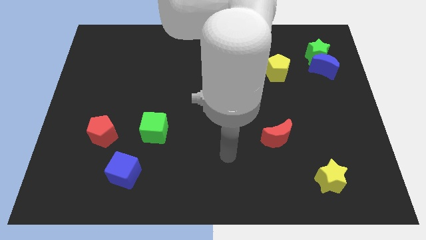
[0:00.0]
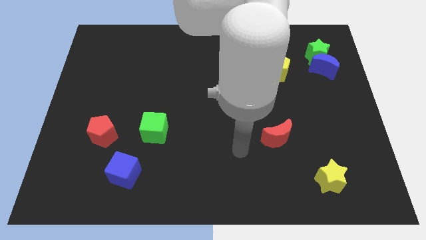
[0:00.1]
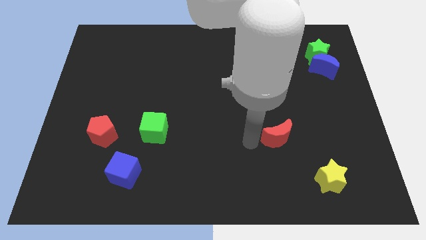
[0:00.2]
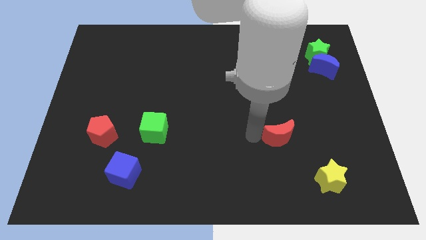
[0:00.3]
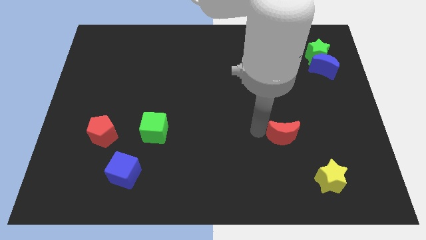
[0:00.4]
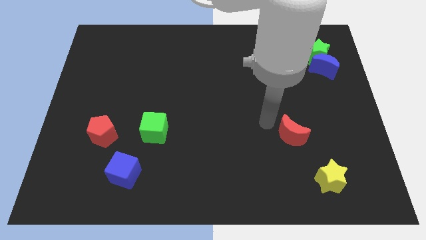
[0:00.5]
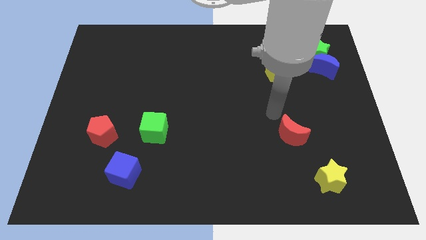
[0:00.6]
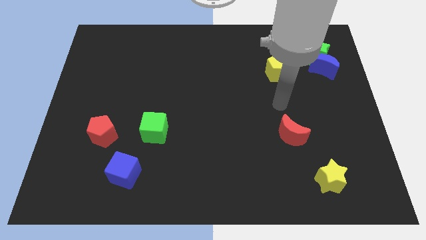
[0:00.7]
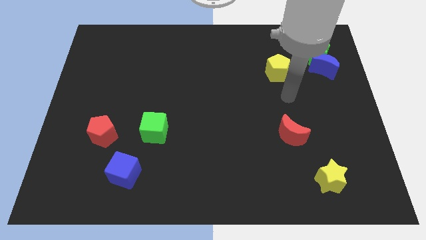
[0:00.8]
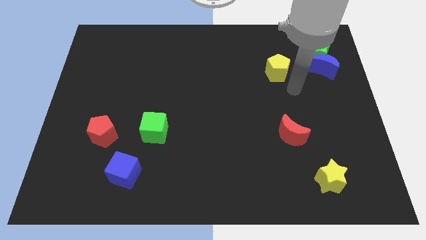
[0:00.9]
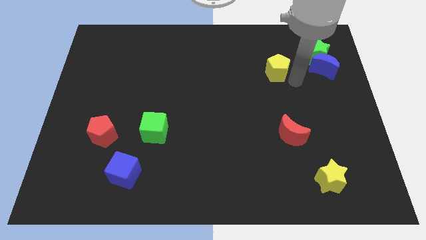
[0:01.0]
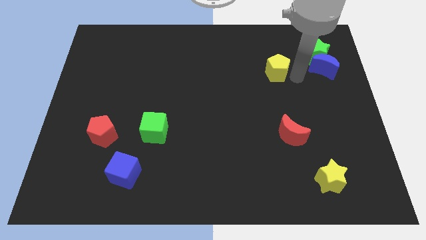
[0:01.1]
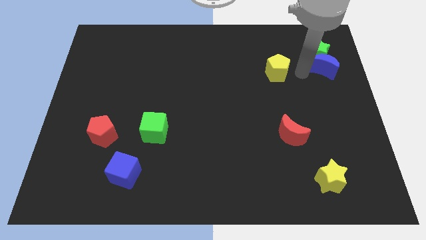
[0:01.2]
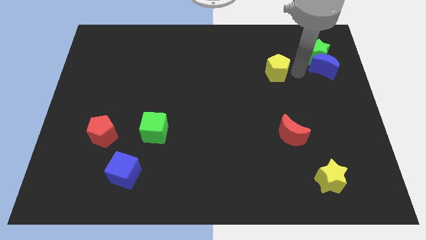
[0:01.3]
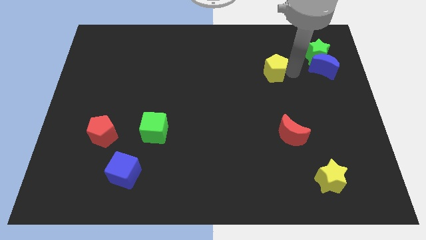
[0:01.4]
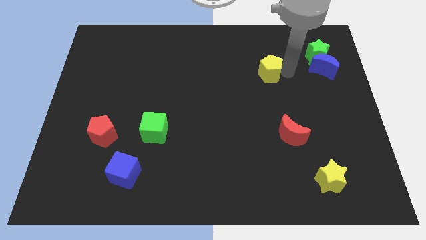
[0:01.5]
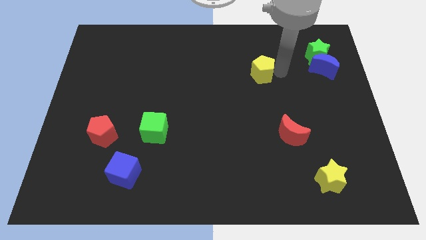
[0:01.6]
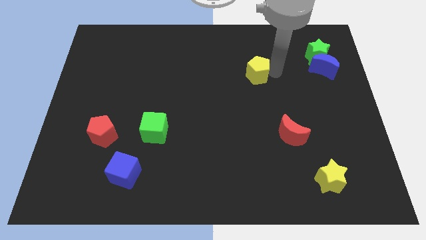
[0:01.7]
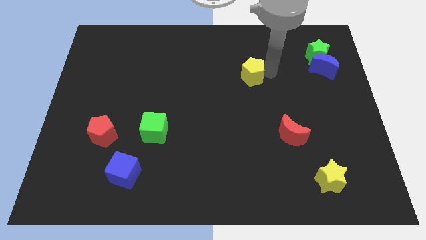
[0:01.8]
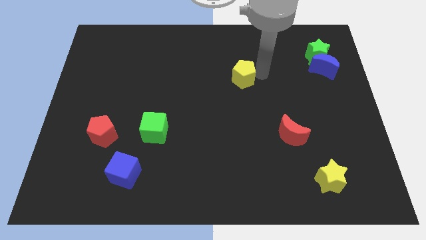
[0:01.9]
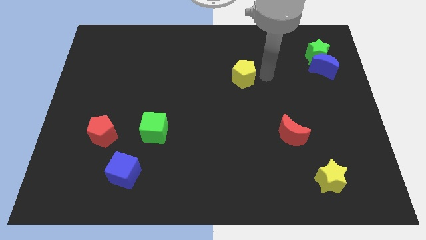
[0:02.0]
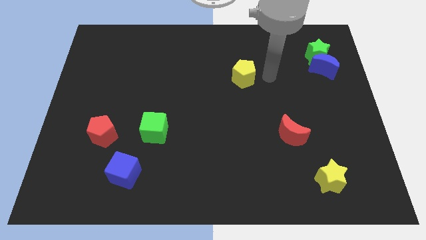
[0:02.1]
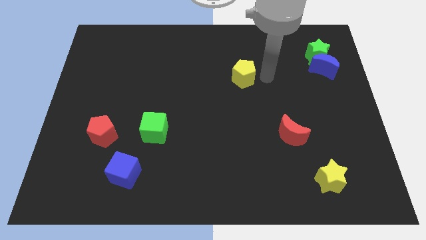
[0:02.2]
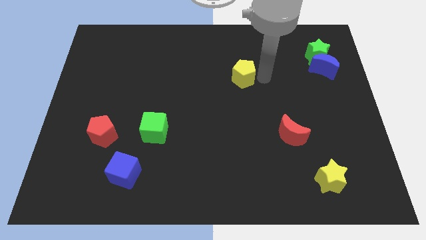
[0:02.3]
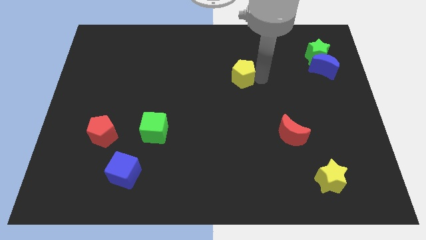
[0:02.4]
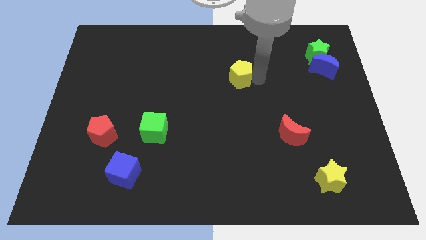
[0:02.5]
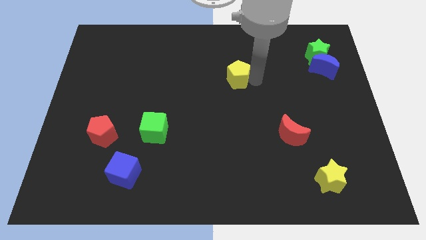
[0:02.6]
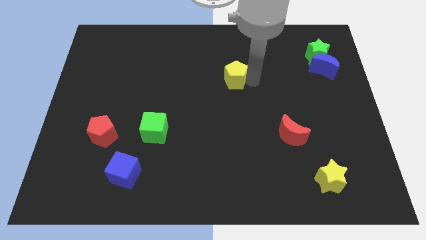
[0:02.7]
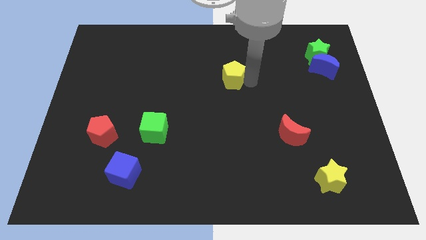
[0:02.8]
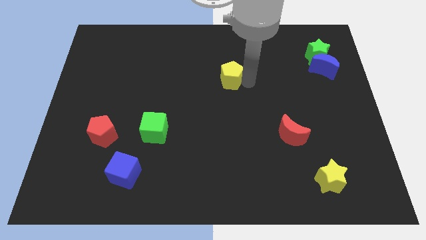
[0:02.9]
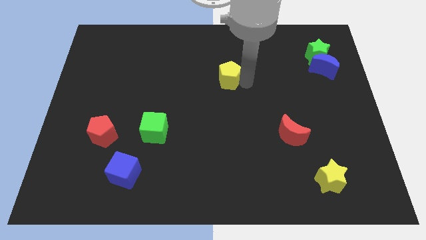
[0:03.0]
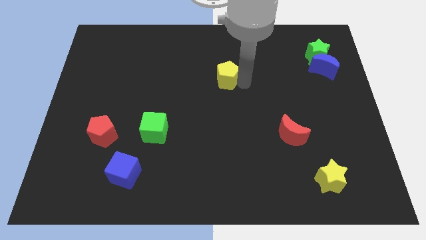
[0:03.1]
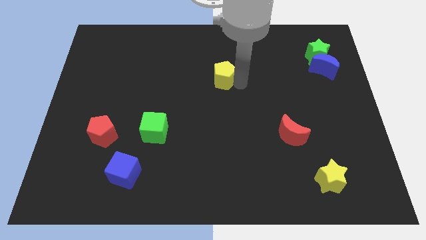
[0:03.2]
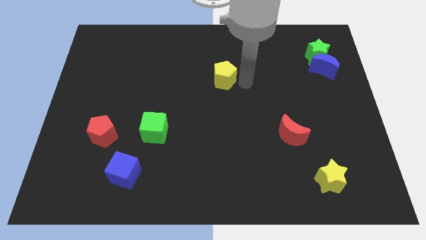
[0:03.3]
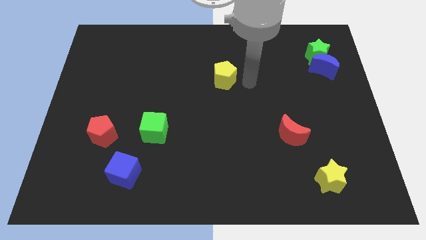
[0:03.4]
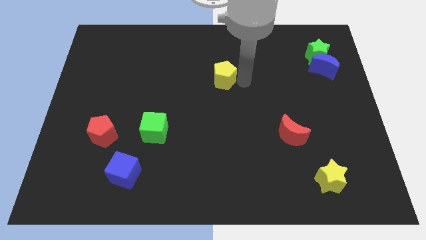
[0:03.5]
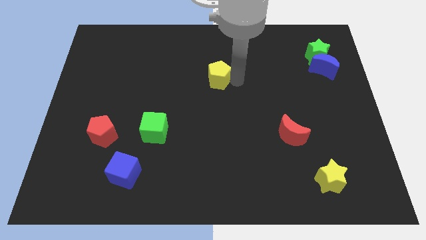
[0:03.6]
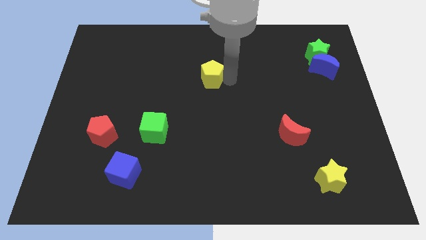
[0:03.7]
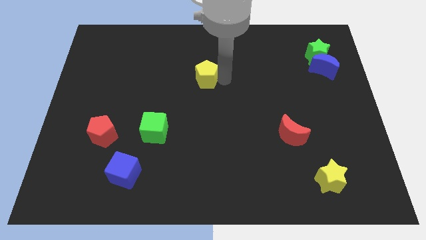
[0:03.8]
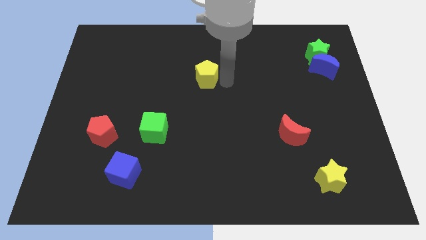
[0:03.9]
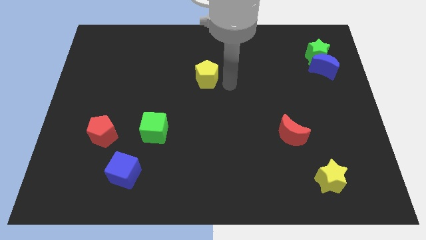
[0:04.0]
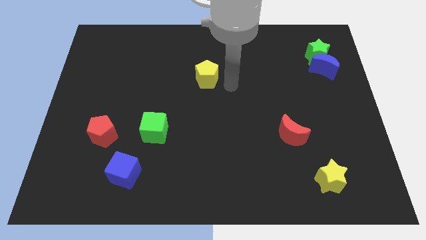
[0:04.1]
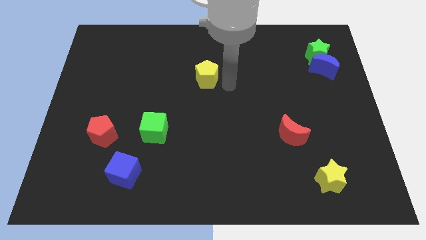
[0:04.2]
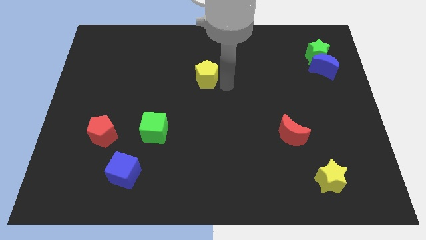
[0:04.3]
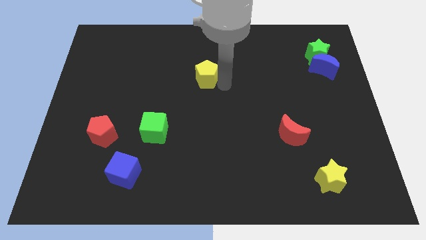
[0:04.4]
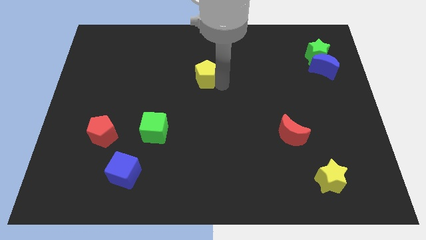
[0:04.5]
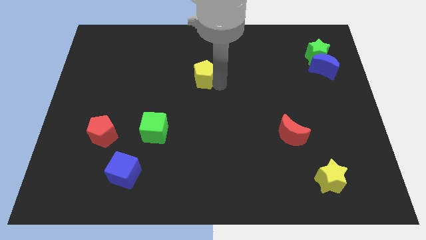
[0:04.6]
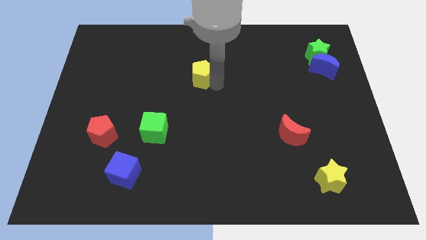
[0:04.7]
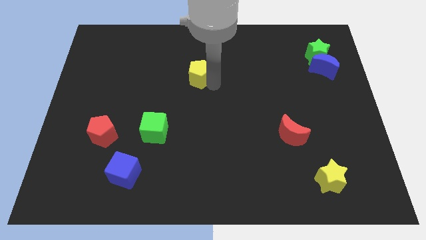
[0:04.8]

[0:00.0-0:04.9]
push the yellow pentagon to the left

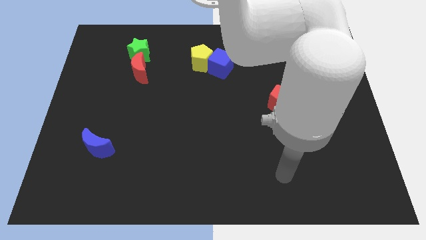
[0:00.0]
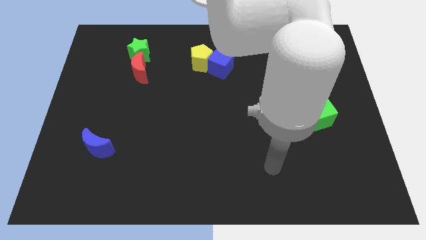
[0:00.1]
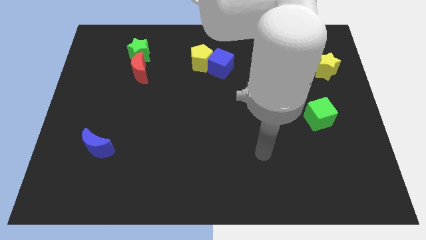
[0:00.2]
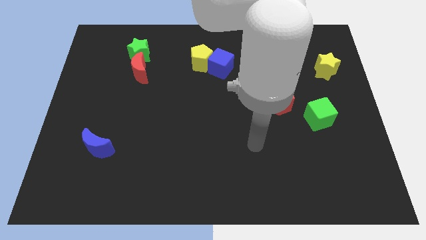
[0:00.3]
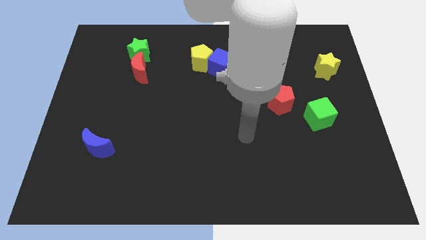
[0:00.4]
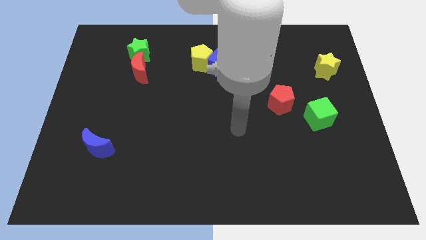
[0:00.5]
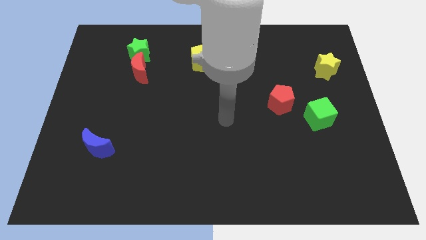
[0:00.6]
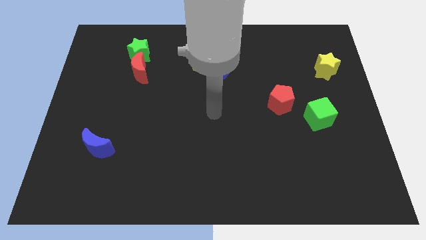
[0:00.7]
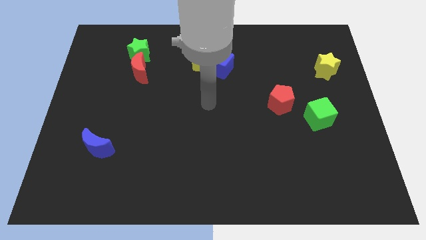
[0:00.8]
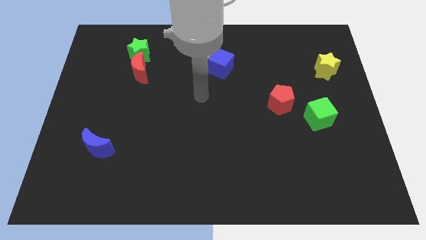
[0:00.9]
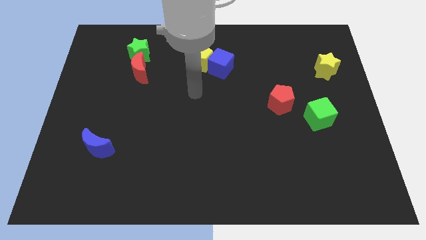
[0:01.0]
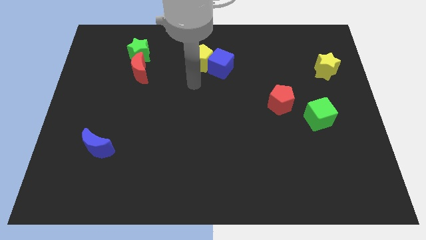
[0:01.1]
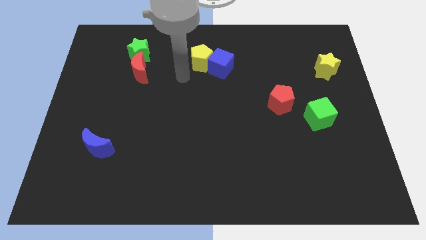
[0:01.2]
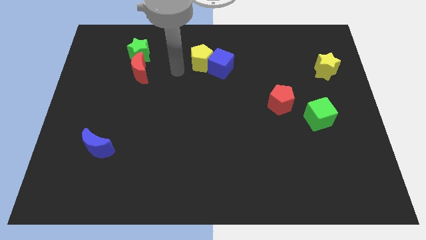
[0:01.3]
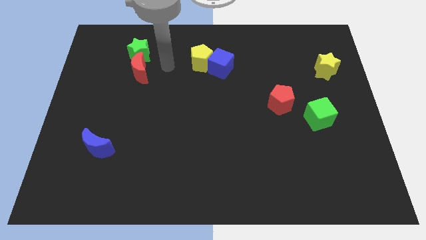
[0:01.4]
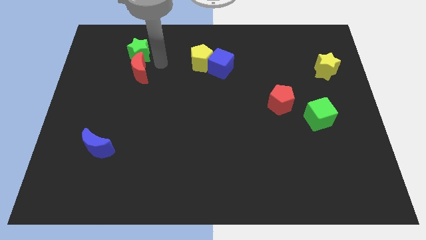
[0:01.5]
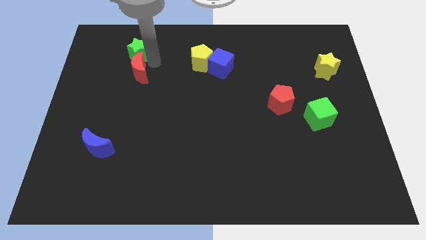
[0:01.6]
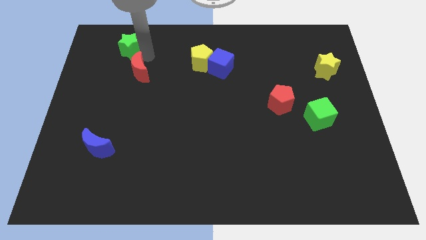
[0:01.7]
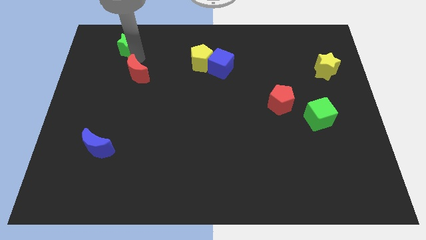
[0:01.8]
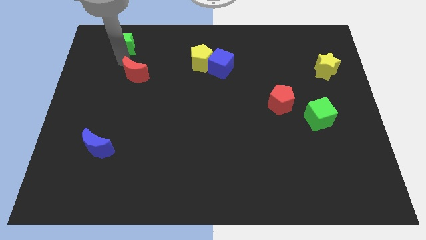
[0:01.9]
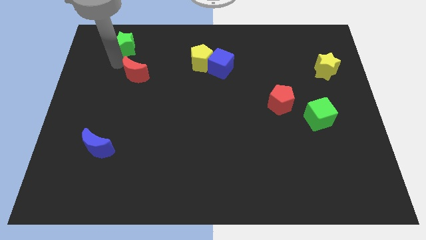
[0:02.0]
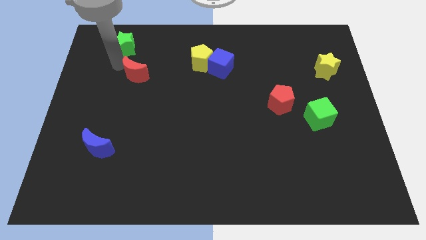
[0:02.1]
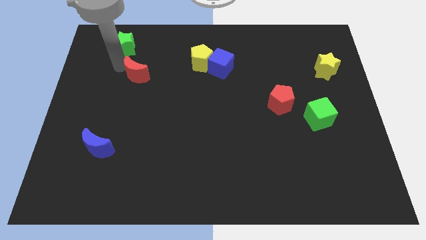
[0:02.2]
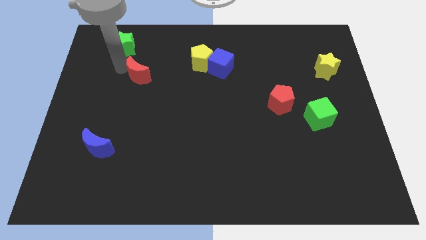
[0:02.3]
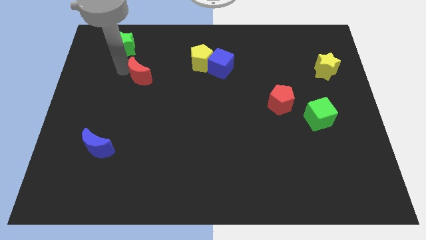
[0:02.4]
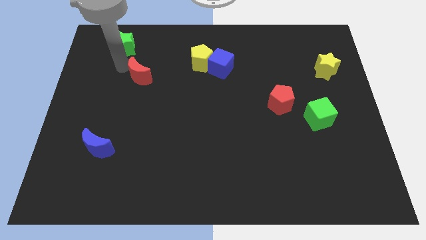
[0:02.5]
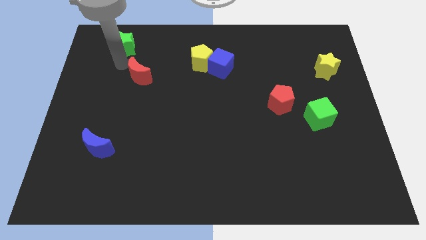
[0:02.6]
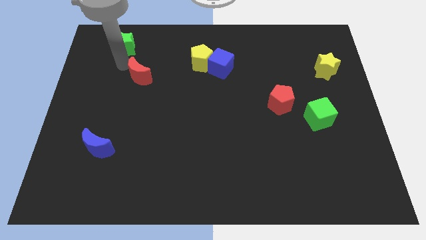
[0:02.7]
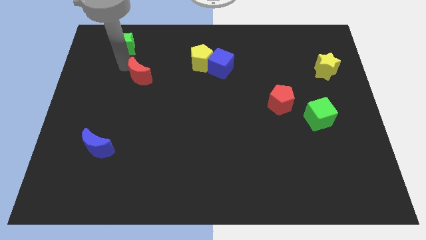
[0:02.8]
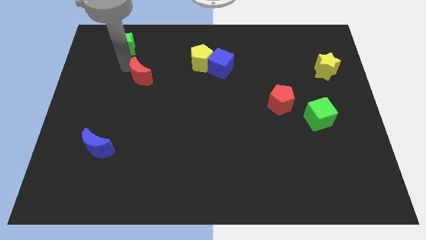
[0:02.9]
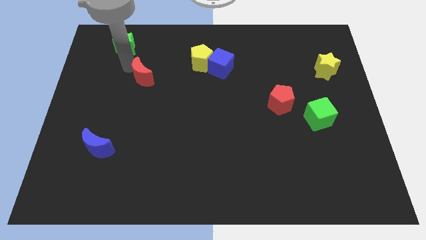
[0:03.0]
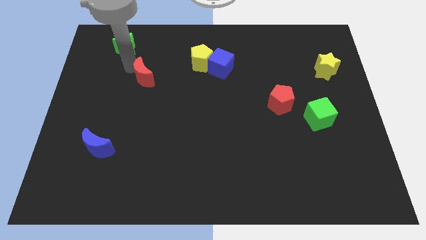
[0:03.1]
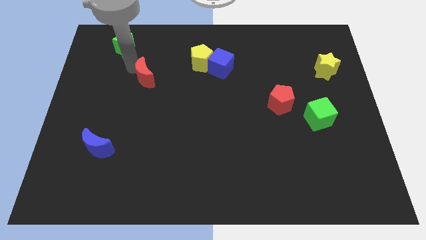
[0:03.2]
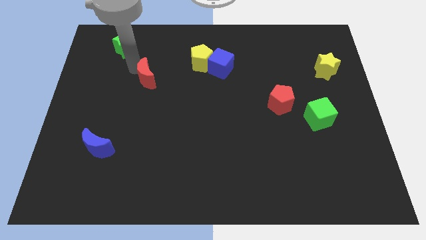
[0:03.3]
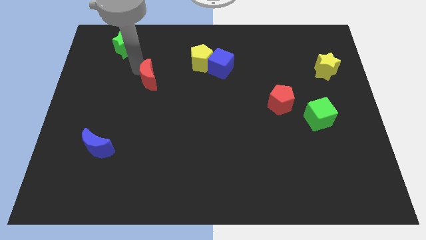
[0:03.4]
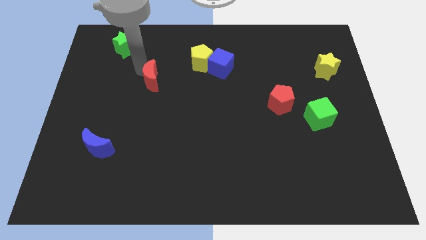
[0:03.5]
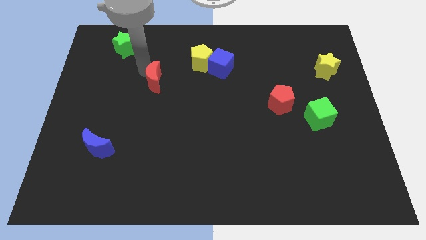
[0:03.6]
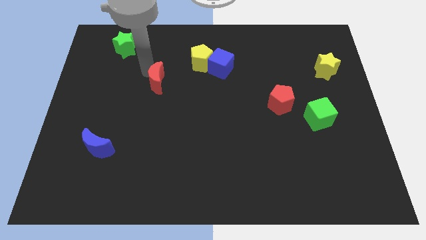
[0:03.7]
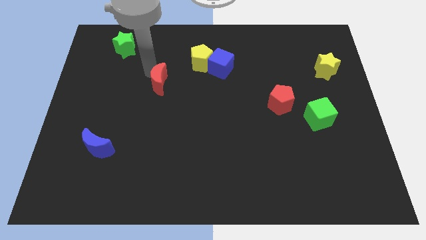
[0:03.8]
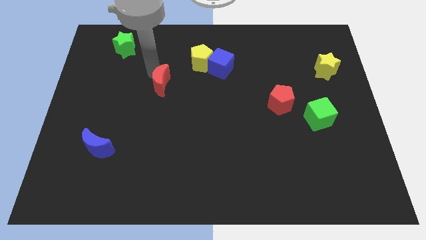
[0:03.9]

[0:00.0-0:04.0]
push the red moon a bit diagonally down and to the right
